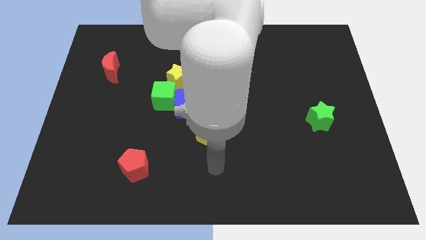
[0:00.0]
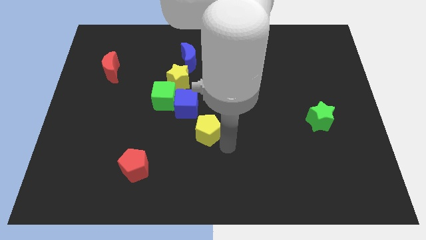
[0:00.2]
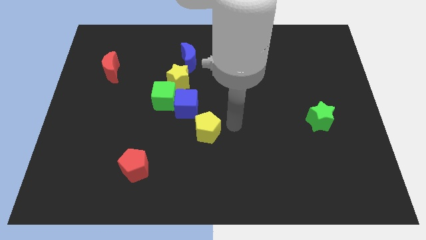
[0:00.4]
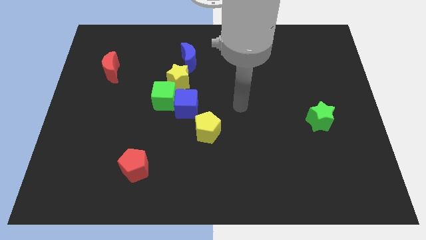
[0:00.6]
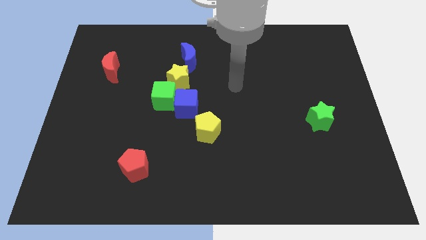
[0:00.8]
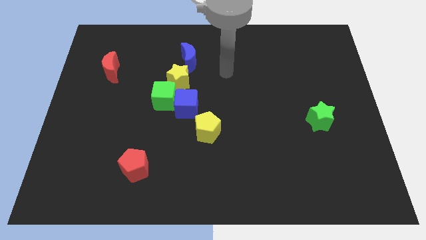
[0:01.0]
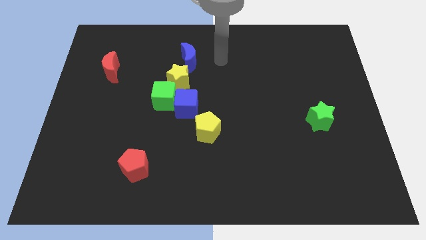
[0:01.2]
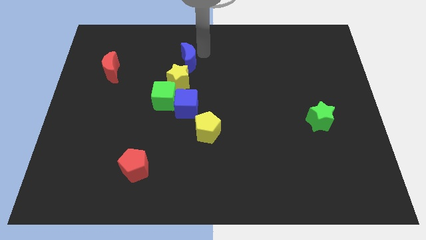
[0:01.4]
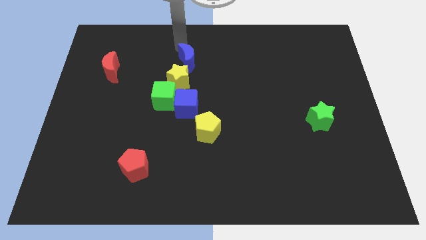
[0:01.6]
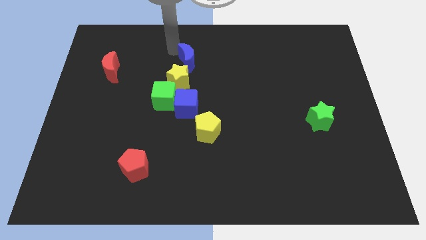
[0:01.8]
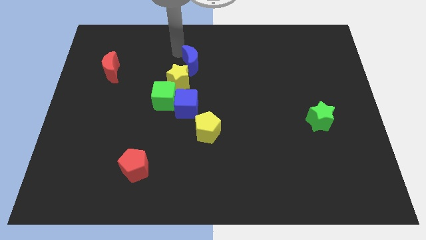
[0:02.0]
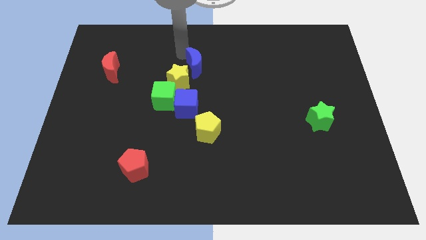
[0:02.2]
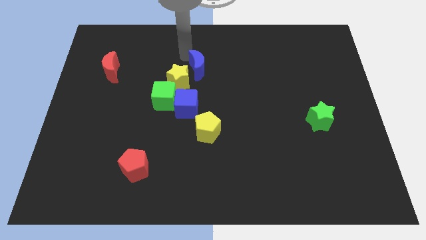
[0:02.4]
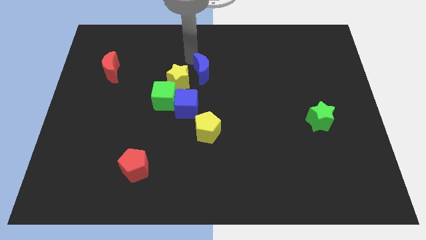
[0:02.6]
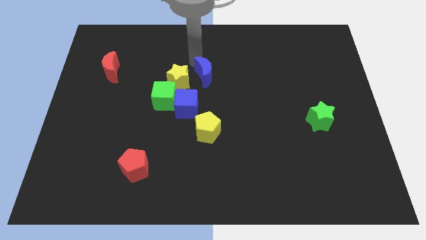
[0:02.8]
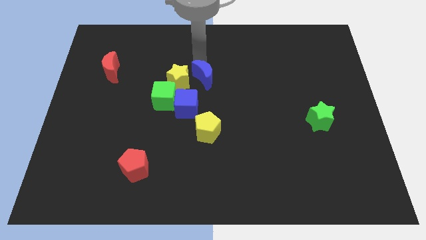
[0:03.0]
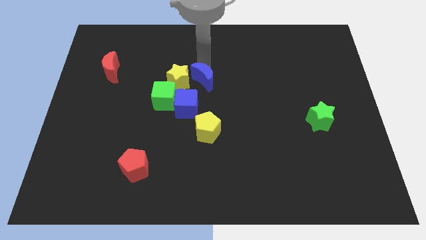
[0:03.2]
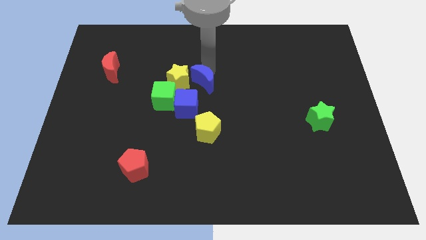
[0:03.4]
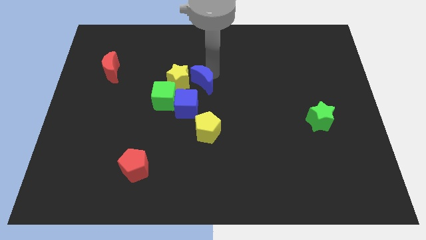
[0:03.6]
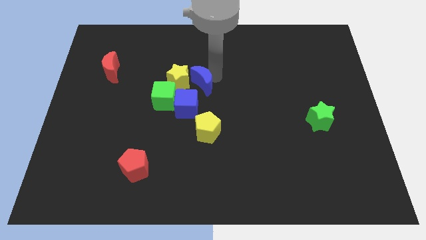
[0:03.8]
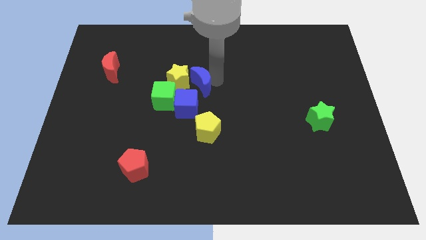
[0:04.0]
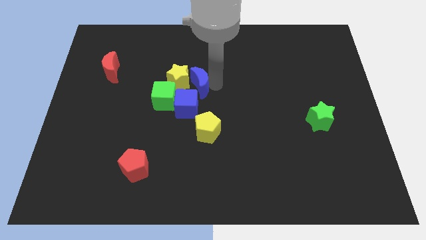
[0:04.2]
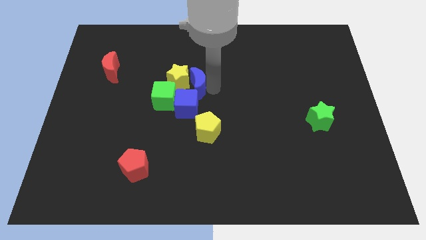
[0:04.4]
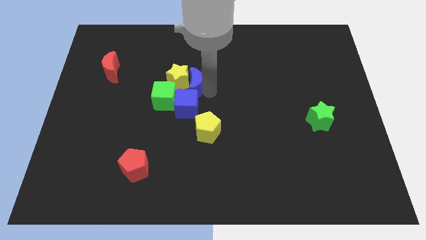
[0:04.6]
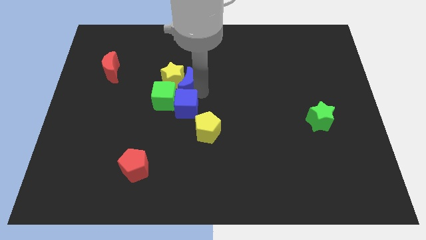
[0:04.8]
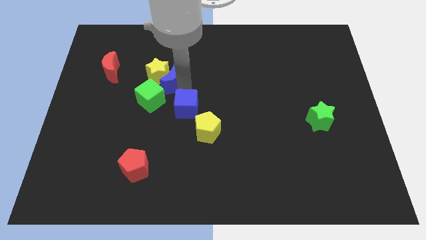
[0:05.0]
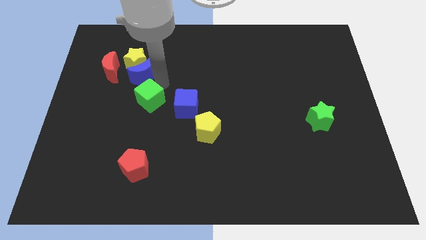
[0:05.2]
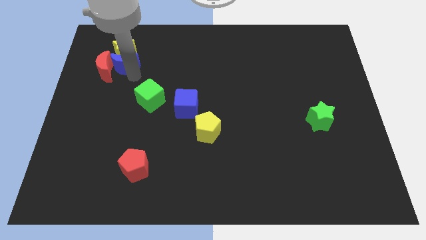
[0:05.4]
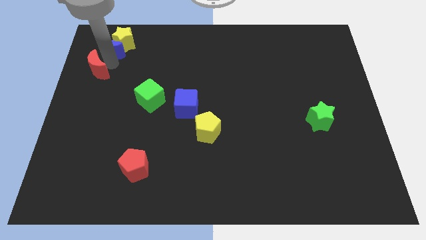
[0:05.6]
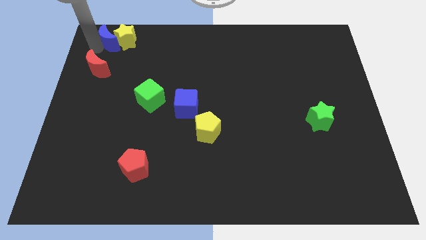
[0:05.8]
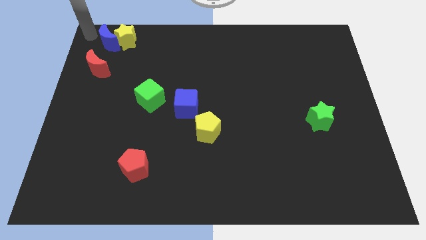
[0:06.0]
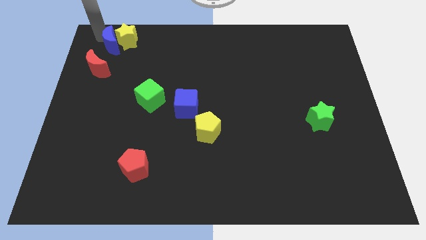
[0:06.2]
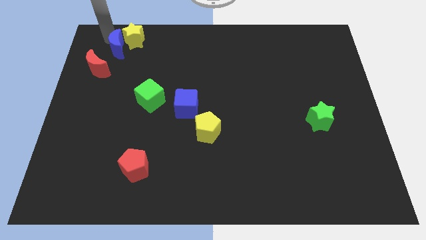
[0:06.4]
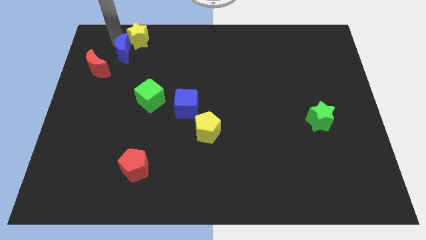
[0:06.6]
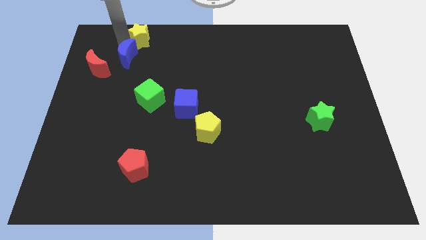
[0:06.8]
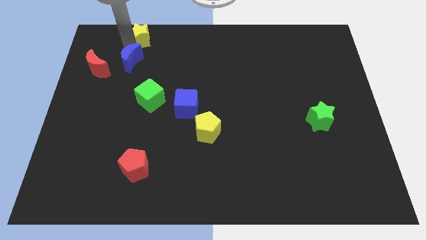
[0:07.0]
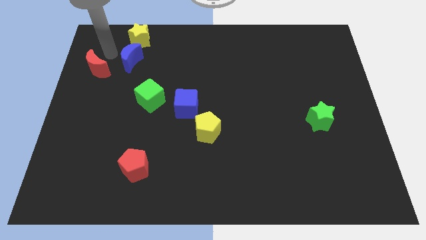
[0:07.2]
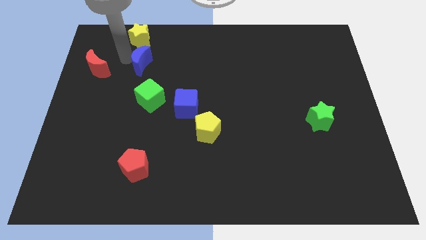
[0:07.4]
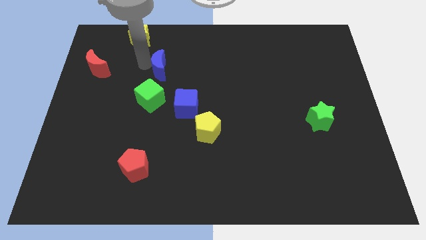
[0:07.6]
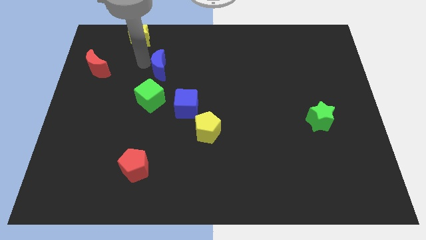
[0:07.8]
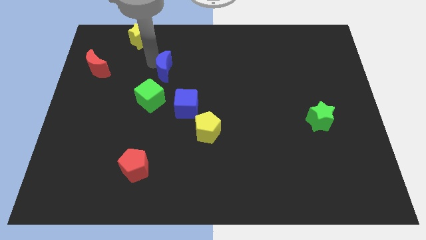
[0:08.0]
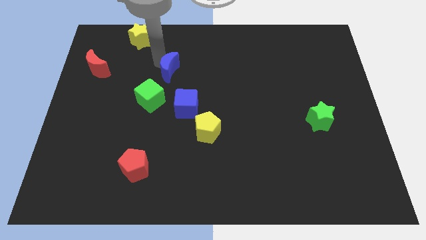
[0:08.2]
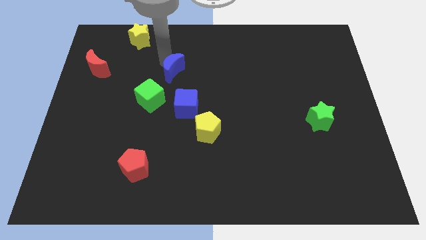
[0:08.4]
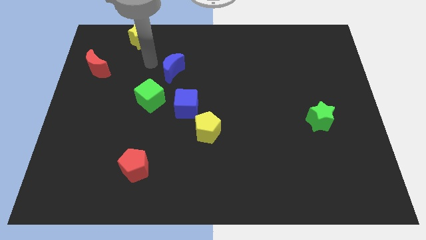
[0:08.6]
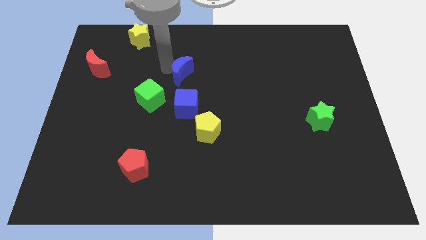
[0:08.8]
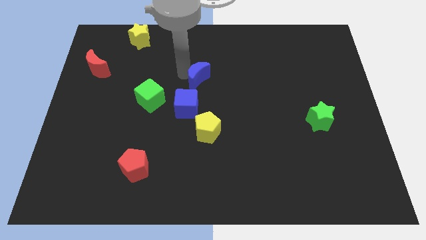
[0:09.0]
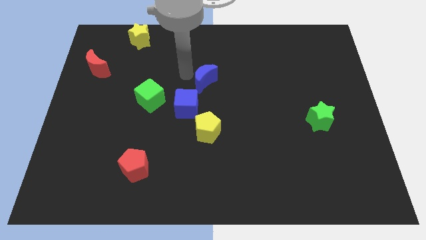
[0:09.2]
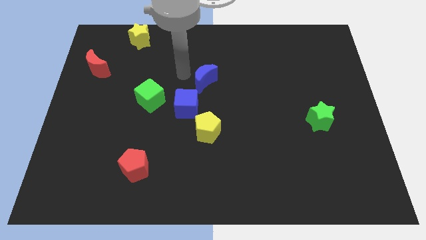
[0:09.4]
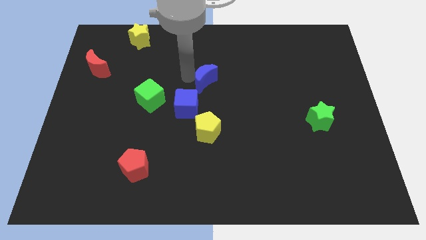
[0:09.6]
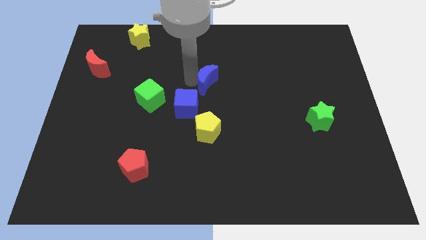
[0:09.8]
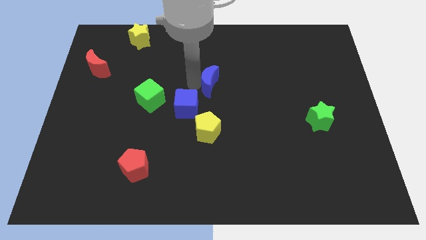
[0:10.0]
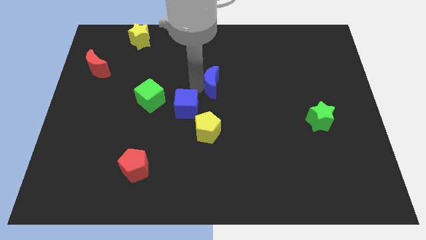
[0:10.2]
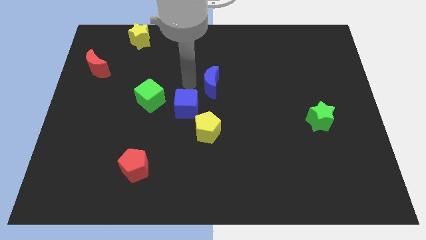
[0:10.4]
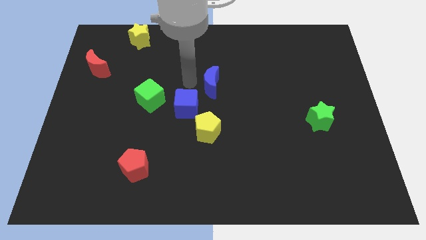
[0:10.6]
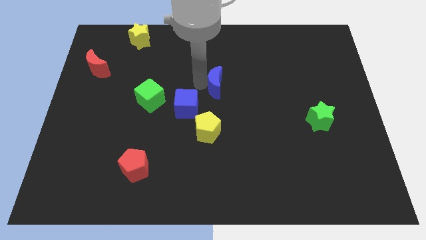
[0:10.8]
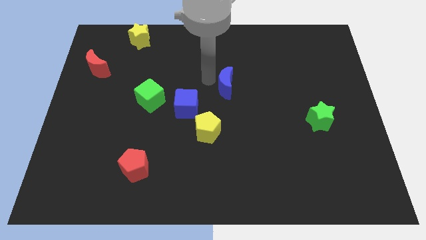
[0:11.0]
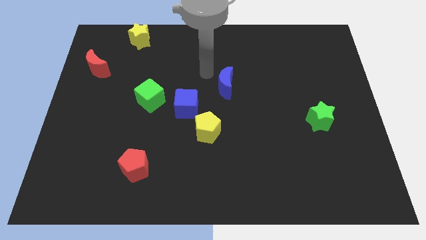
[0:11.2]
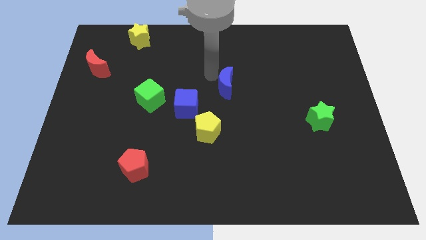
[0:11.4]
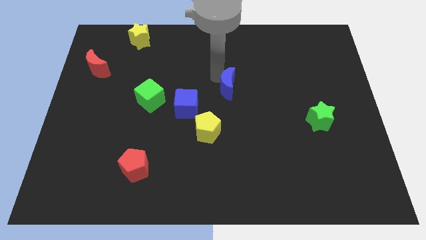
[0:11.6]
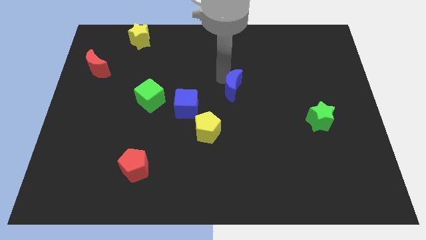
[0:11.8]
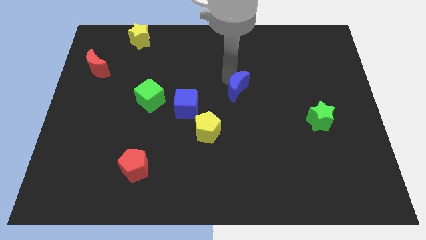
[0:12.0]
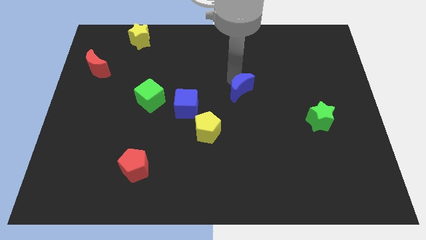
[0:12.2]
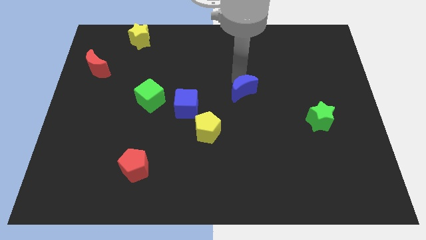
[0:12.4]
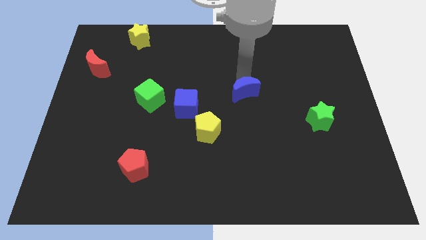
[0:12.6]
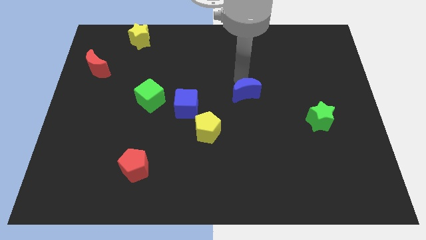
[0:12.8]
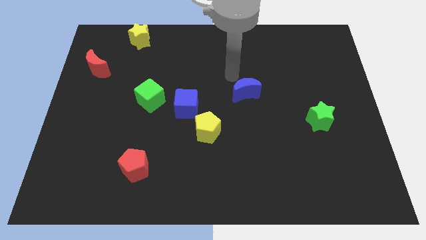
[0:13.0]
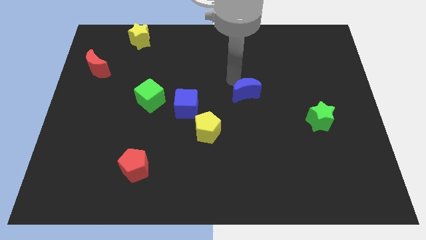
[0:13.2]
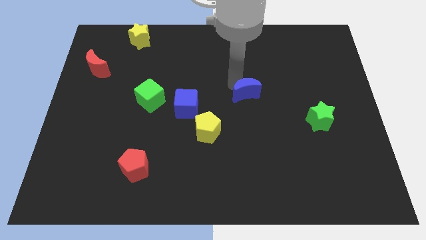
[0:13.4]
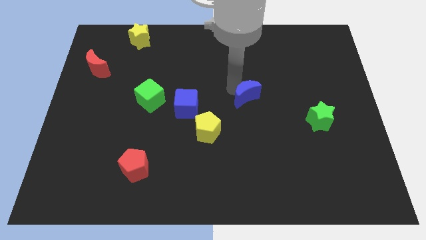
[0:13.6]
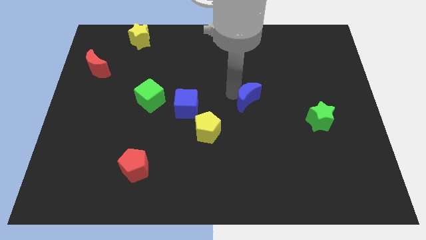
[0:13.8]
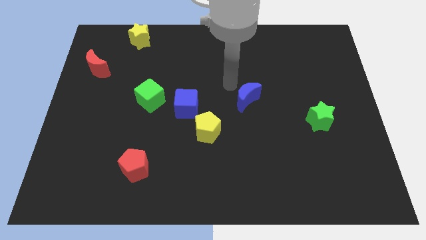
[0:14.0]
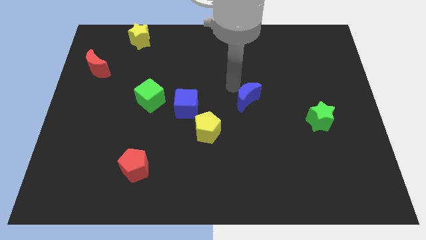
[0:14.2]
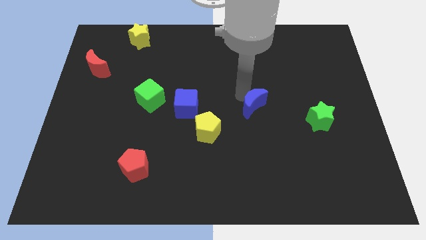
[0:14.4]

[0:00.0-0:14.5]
slide the blue moon down and to the right diagonally

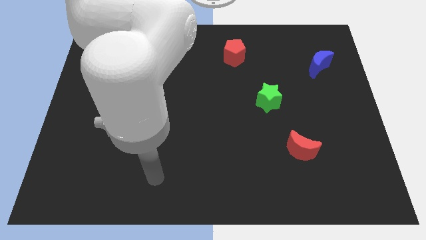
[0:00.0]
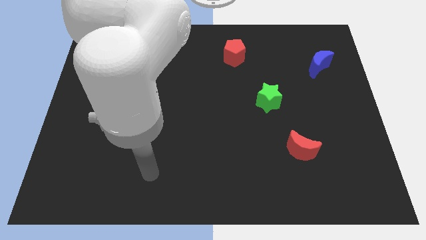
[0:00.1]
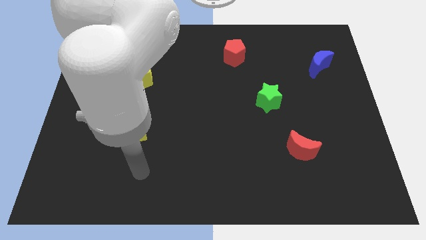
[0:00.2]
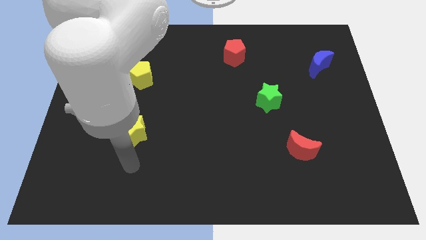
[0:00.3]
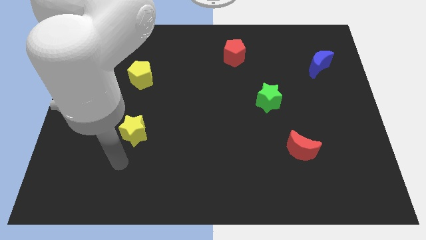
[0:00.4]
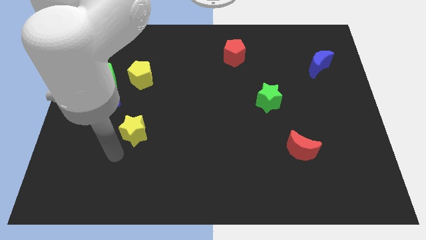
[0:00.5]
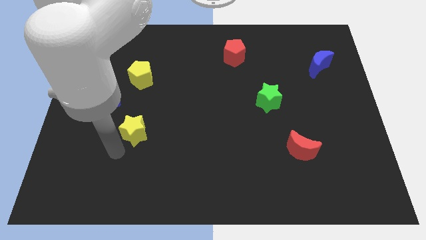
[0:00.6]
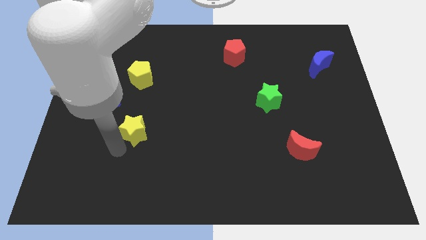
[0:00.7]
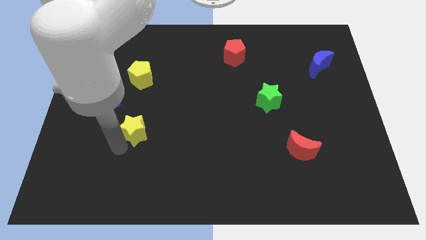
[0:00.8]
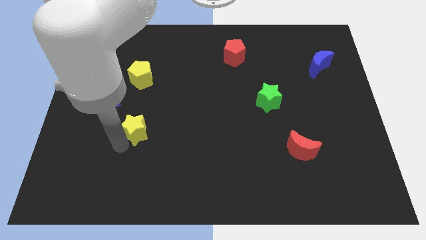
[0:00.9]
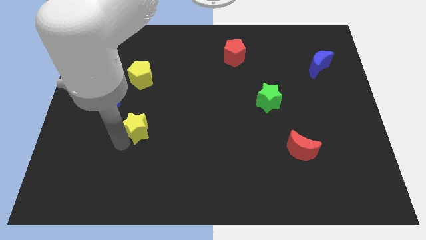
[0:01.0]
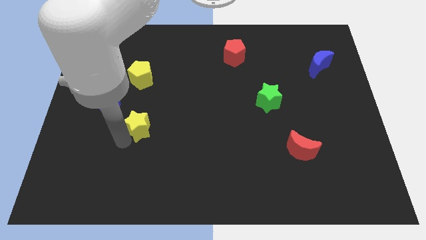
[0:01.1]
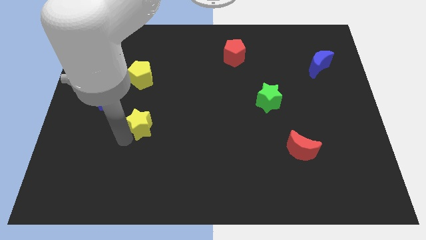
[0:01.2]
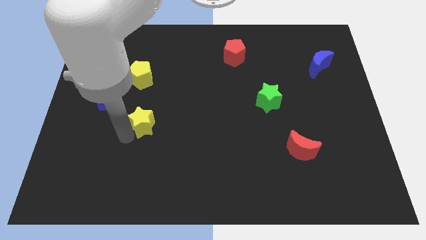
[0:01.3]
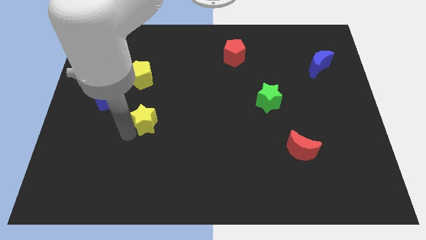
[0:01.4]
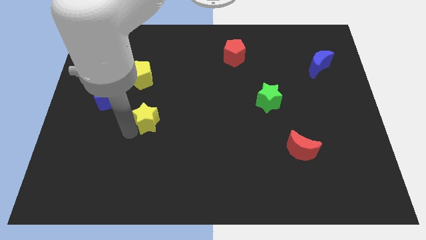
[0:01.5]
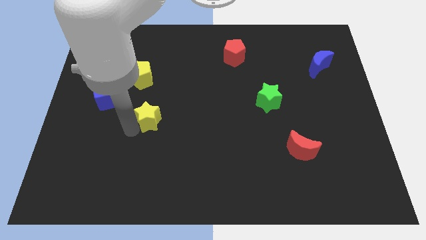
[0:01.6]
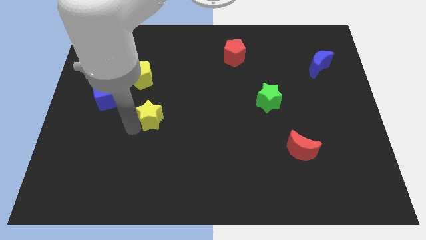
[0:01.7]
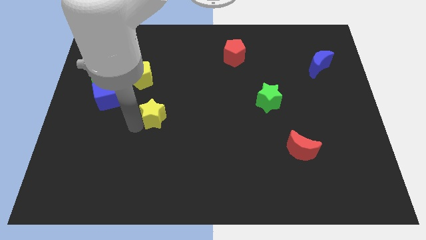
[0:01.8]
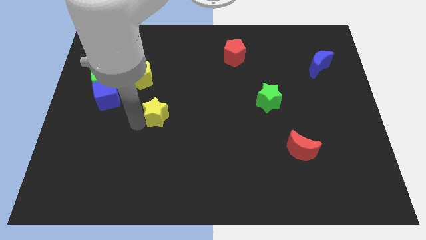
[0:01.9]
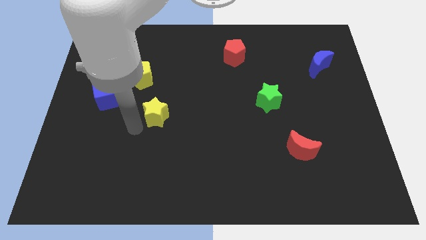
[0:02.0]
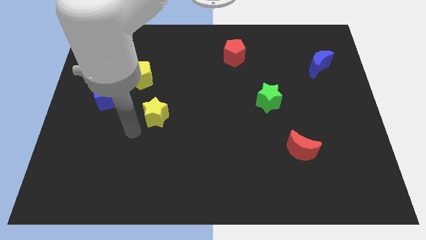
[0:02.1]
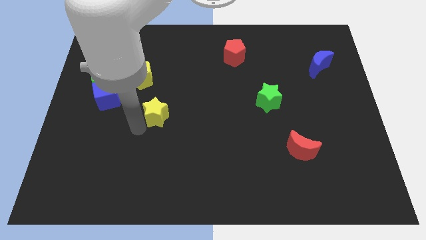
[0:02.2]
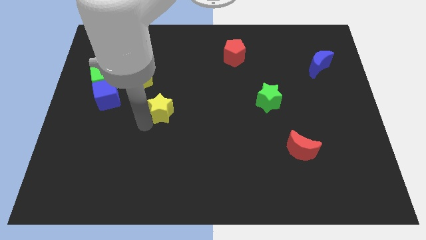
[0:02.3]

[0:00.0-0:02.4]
move the yellow star somewhat up and to the right diagonally
